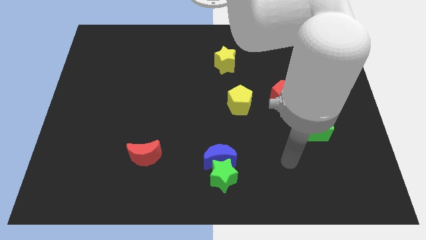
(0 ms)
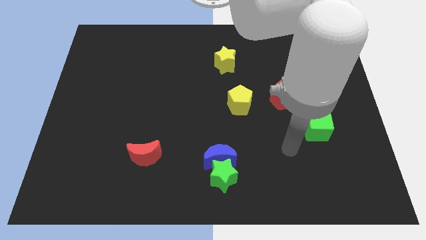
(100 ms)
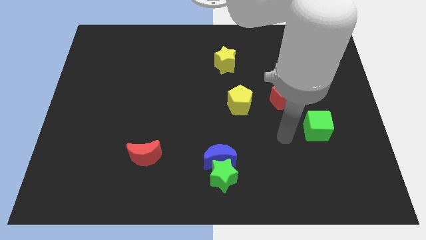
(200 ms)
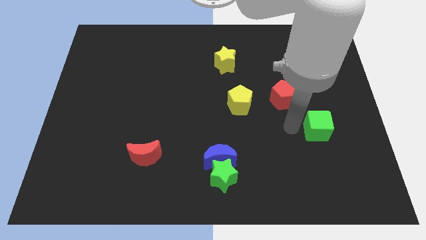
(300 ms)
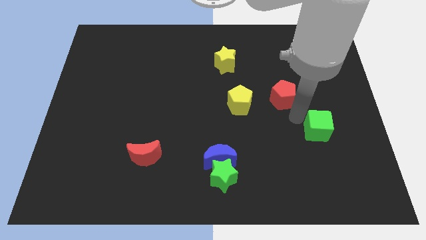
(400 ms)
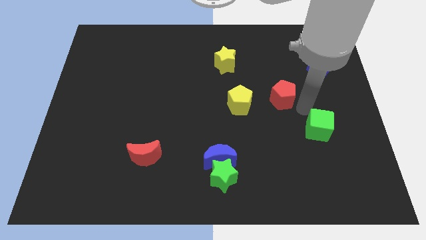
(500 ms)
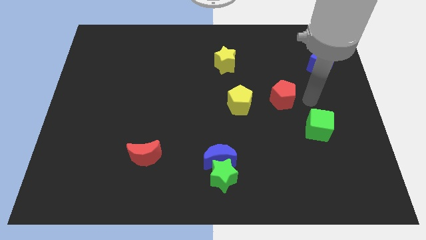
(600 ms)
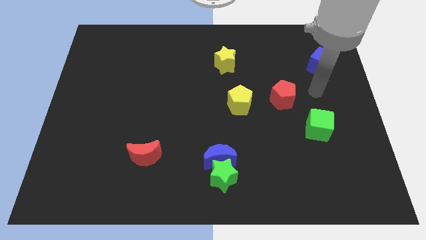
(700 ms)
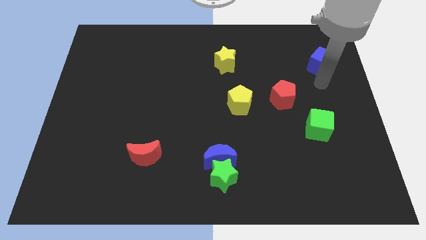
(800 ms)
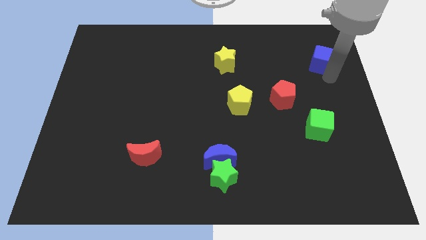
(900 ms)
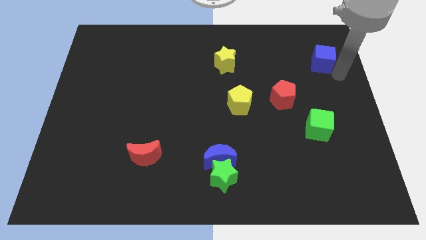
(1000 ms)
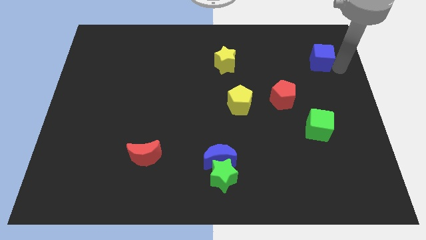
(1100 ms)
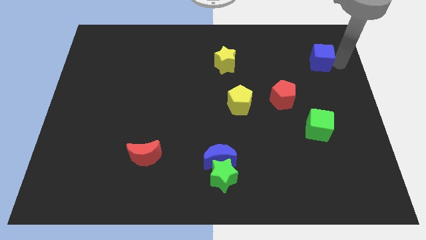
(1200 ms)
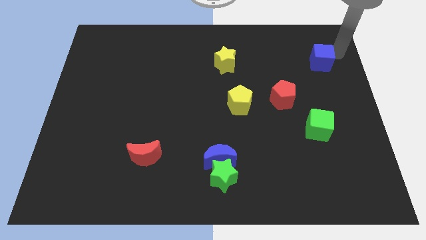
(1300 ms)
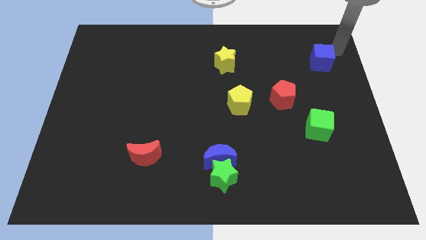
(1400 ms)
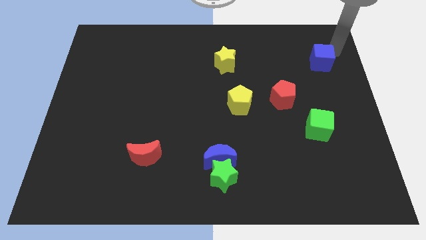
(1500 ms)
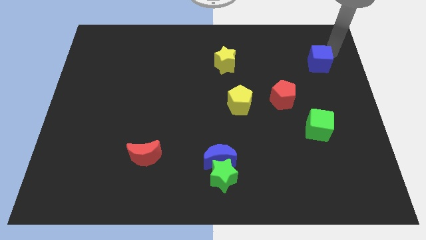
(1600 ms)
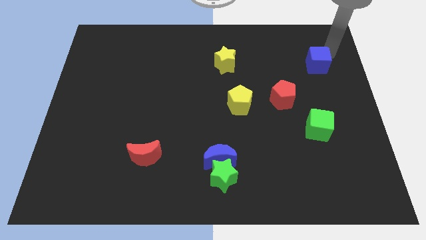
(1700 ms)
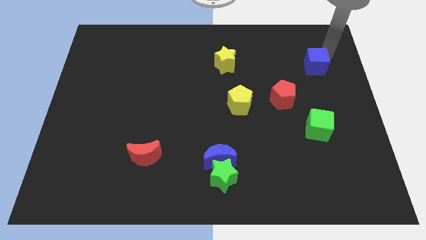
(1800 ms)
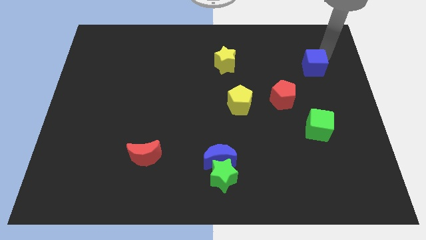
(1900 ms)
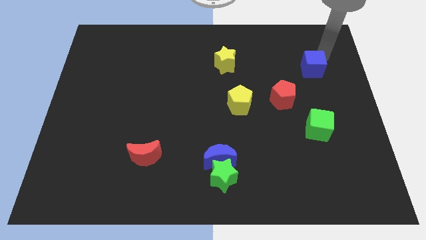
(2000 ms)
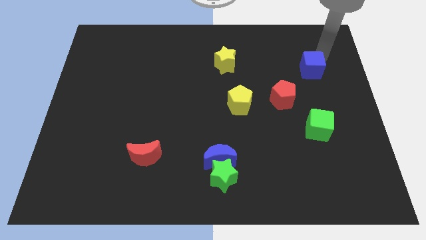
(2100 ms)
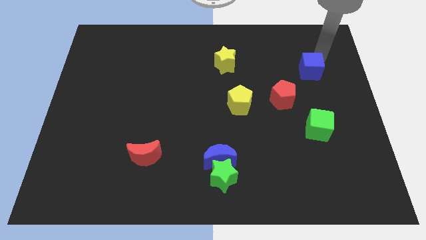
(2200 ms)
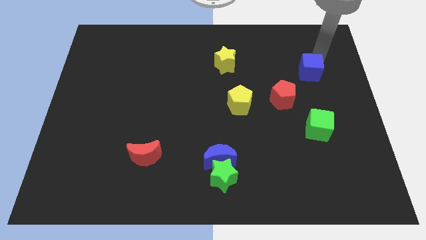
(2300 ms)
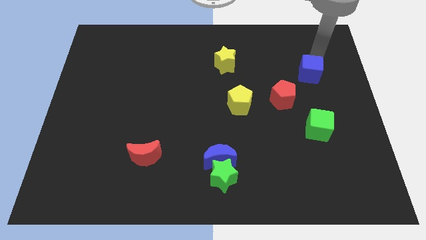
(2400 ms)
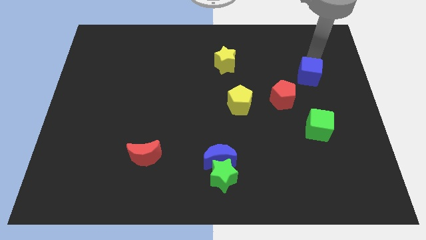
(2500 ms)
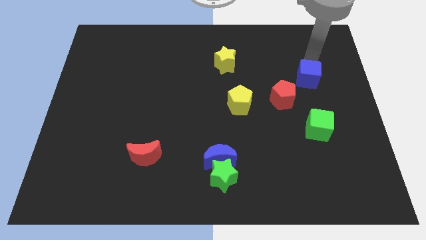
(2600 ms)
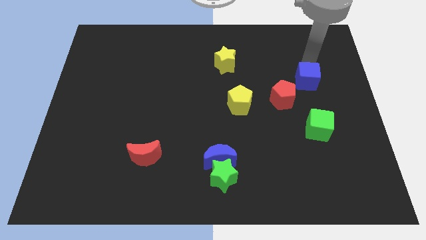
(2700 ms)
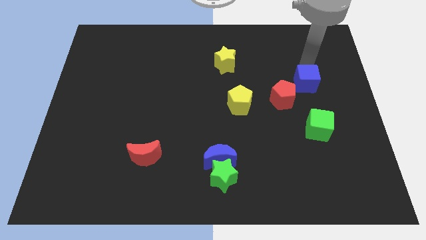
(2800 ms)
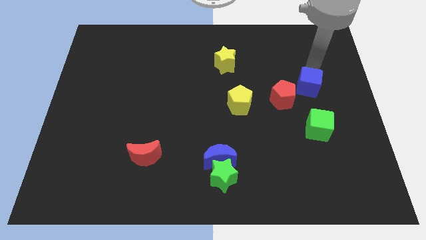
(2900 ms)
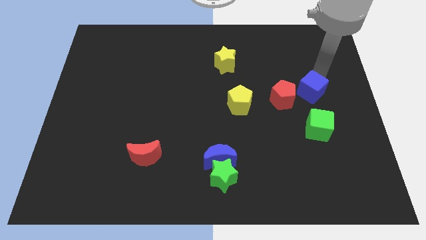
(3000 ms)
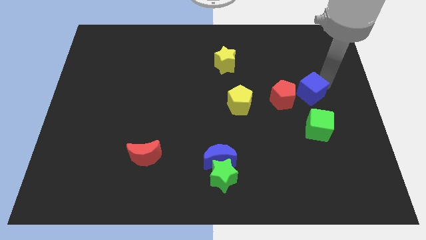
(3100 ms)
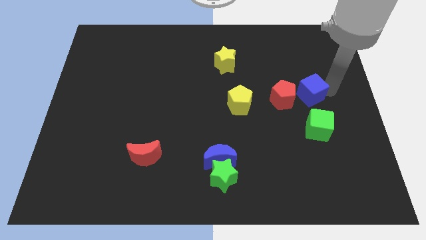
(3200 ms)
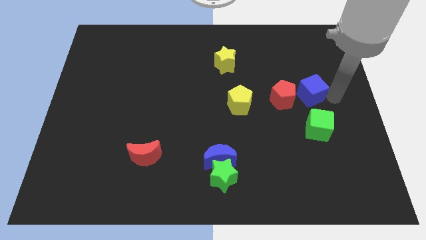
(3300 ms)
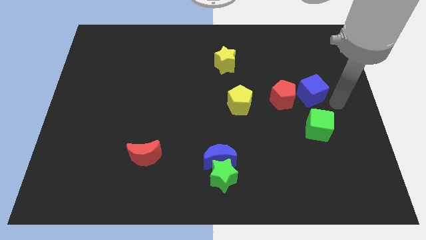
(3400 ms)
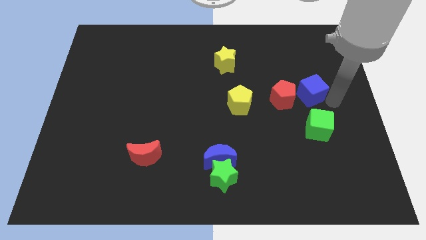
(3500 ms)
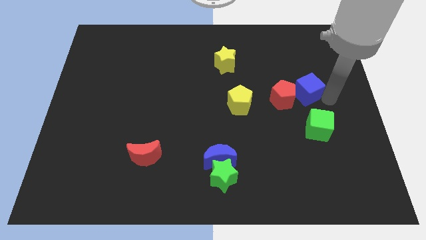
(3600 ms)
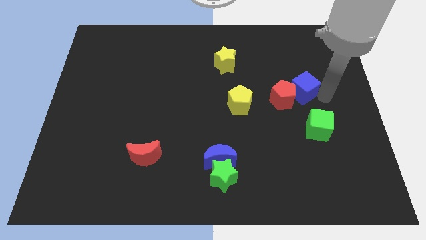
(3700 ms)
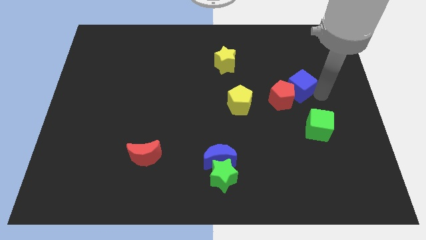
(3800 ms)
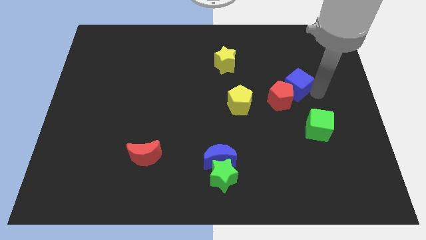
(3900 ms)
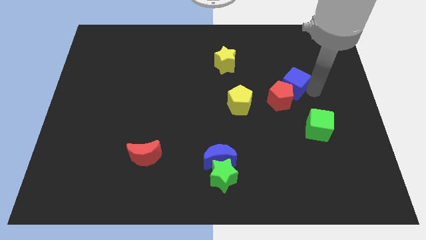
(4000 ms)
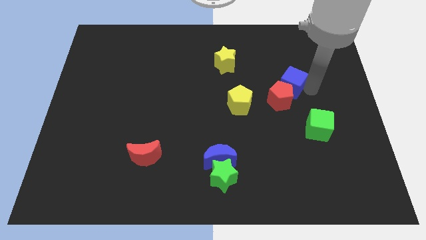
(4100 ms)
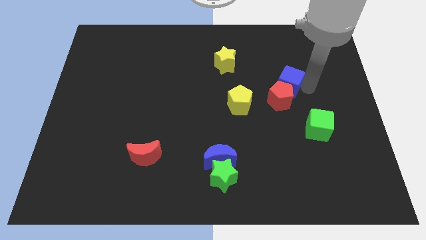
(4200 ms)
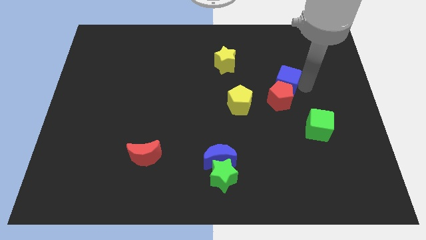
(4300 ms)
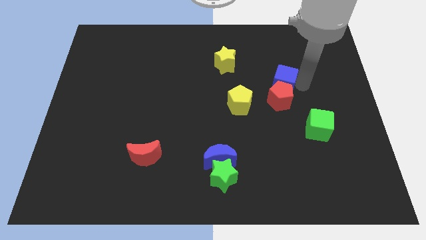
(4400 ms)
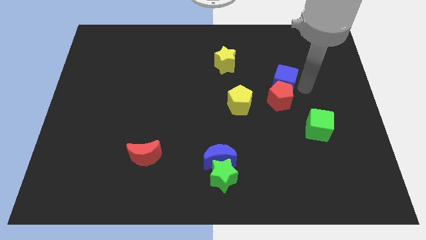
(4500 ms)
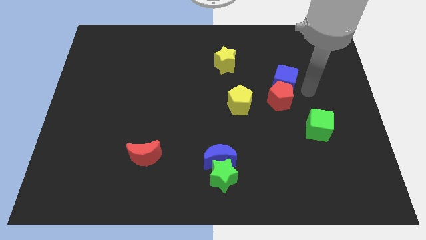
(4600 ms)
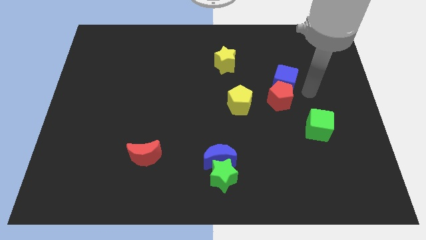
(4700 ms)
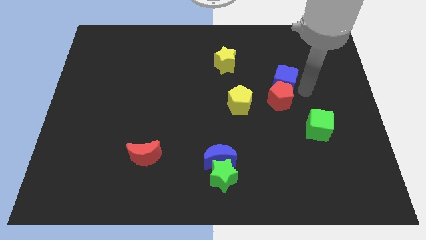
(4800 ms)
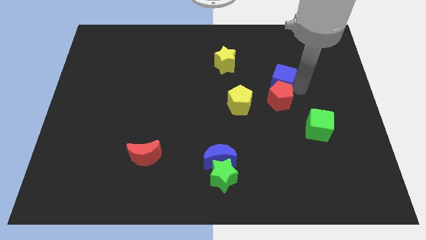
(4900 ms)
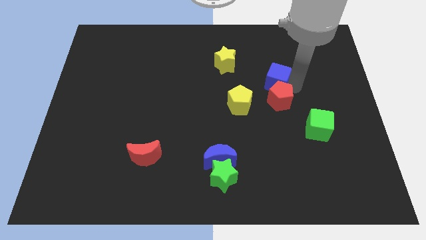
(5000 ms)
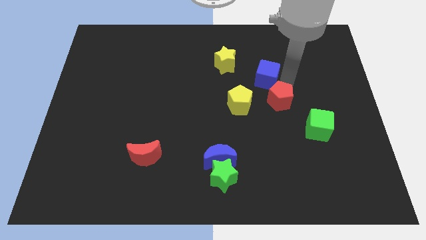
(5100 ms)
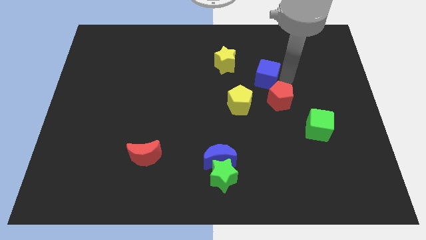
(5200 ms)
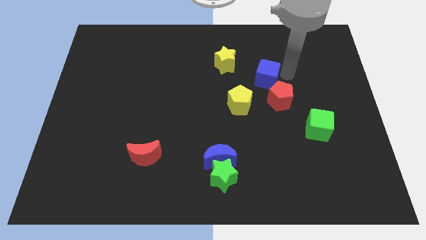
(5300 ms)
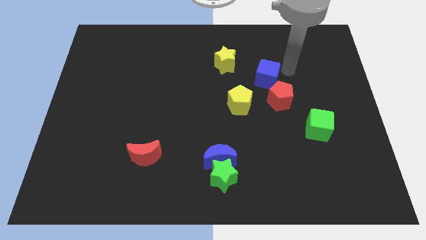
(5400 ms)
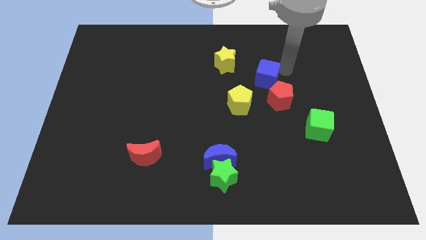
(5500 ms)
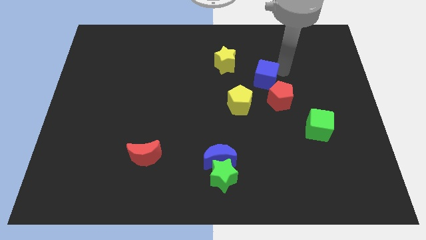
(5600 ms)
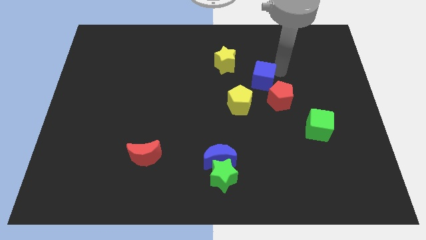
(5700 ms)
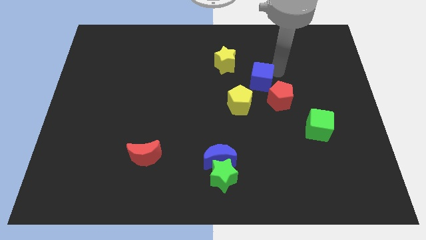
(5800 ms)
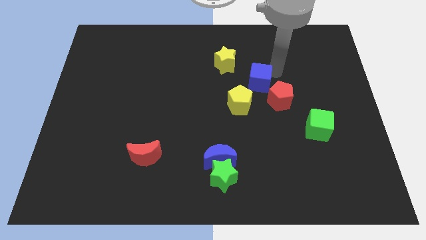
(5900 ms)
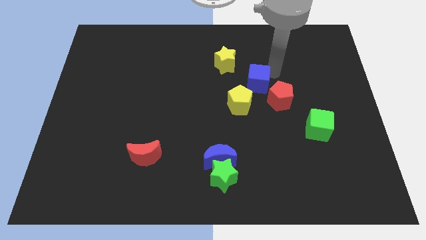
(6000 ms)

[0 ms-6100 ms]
move the blue cube to the middle of the board
